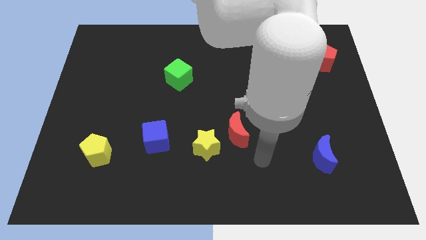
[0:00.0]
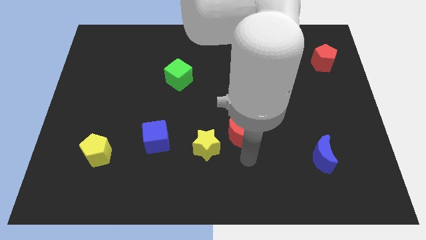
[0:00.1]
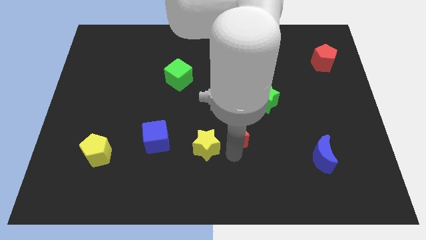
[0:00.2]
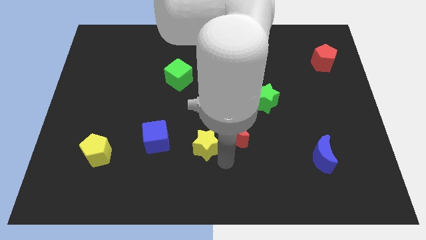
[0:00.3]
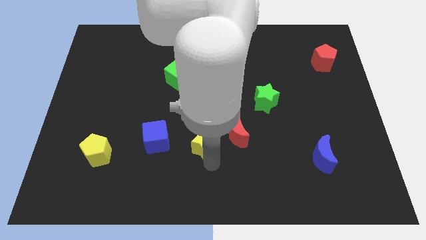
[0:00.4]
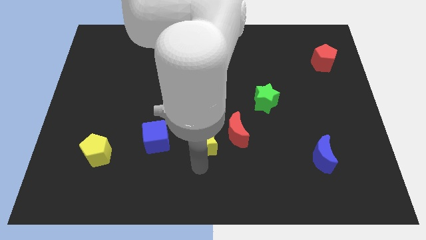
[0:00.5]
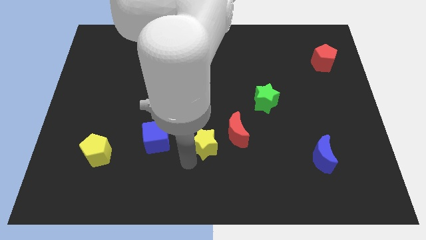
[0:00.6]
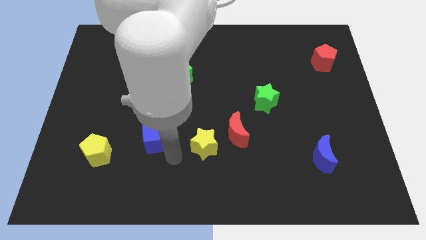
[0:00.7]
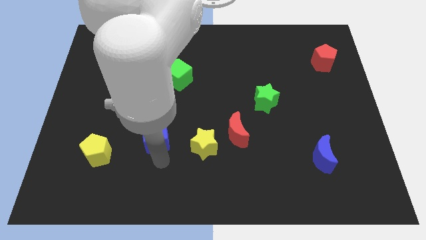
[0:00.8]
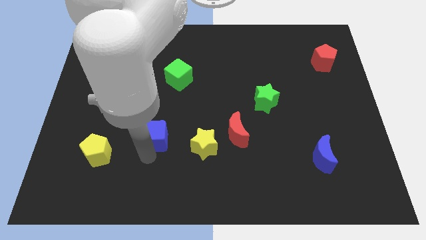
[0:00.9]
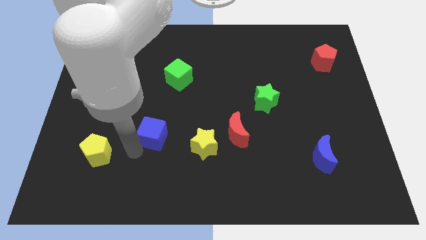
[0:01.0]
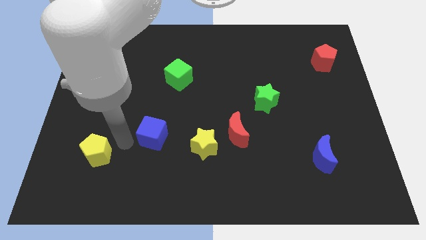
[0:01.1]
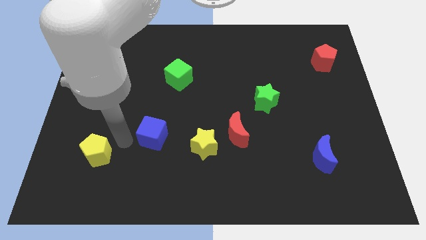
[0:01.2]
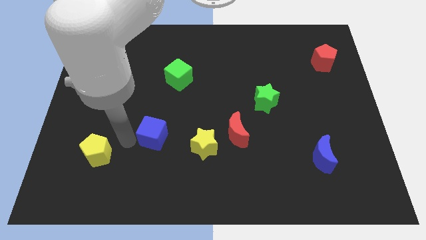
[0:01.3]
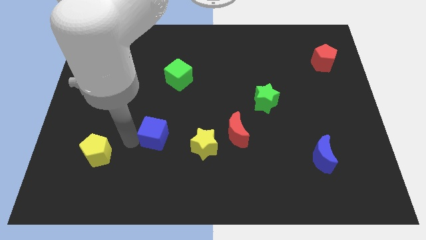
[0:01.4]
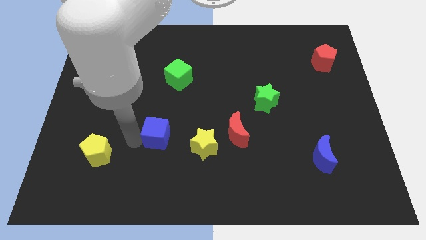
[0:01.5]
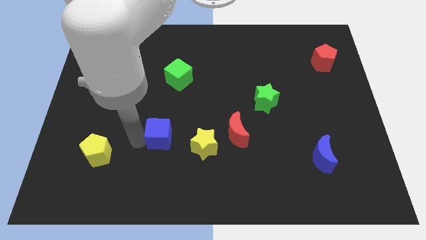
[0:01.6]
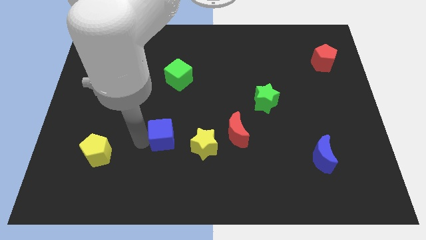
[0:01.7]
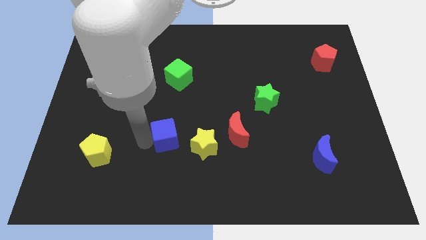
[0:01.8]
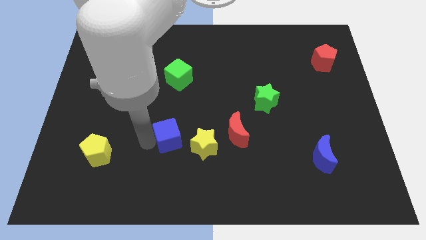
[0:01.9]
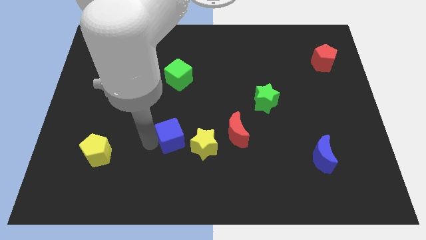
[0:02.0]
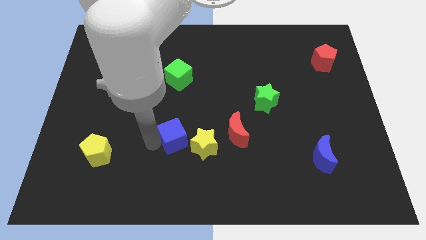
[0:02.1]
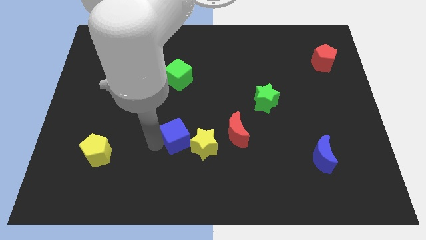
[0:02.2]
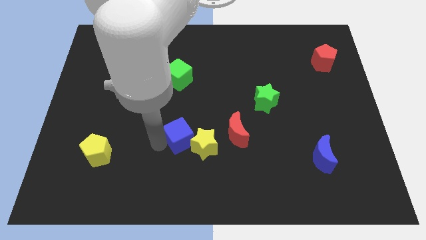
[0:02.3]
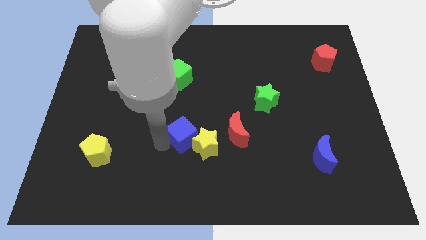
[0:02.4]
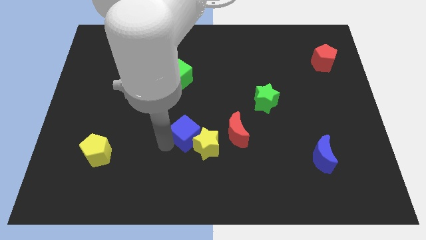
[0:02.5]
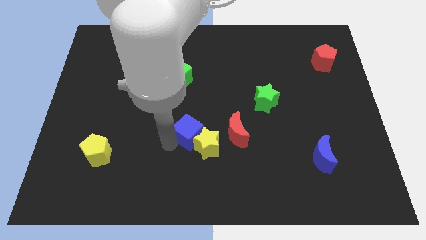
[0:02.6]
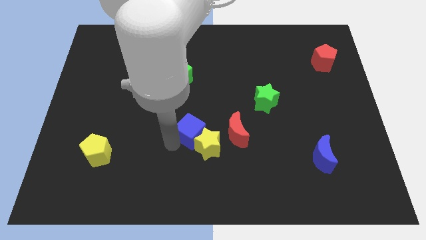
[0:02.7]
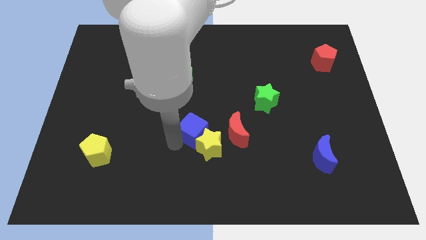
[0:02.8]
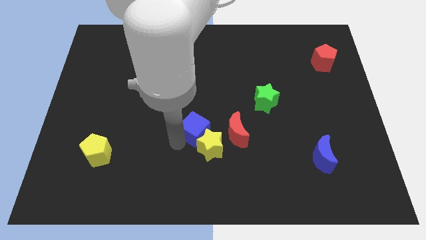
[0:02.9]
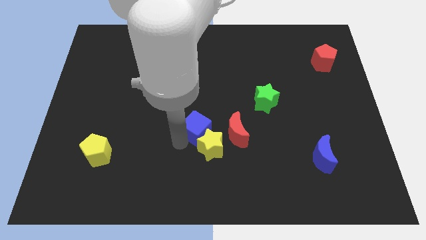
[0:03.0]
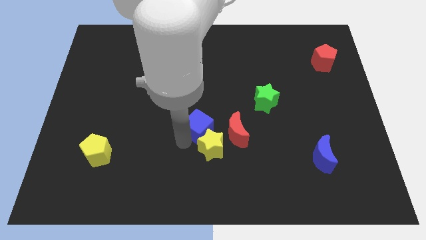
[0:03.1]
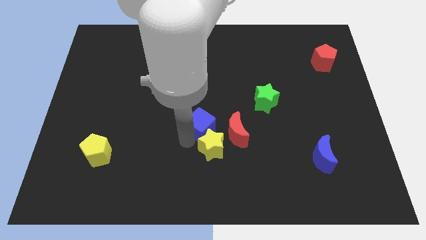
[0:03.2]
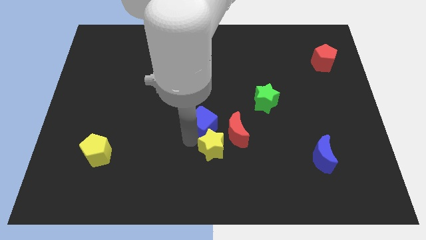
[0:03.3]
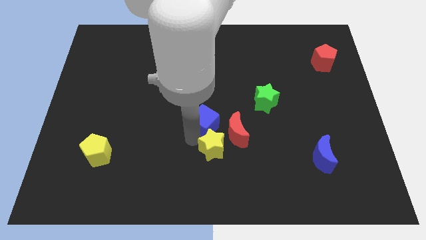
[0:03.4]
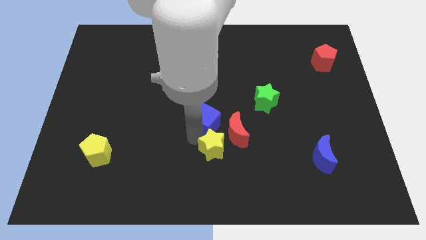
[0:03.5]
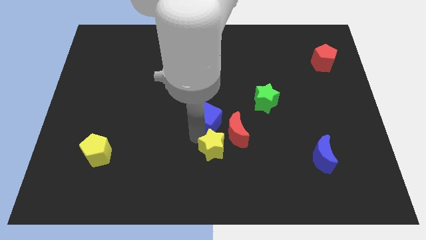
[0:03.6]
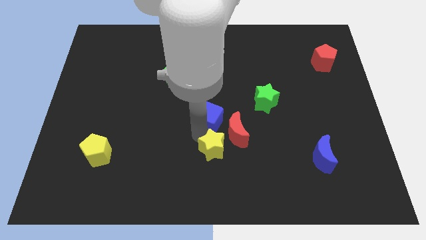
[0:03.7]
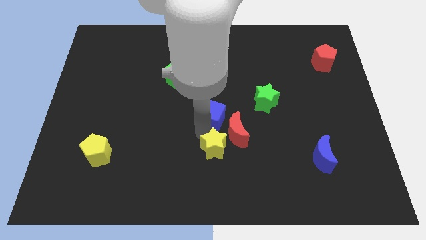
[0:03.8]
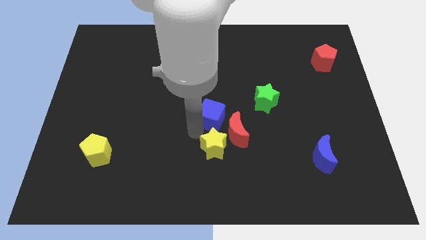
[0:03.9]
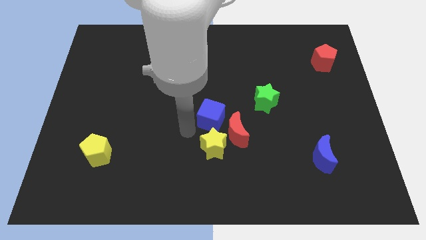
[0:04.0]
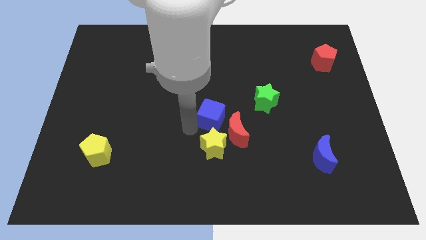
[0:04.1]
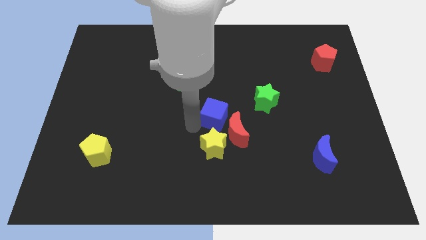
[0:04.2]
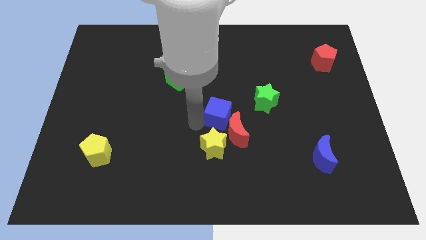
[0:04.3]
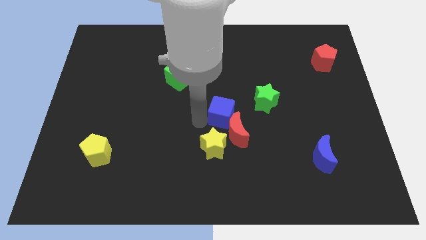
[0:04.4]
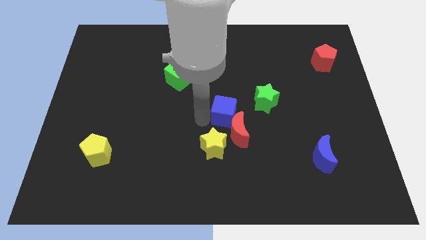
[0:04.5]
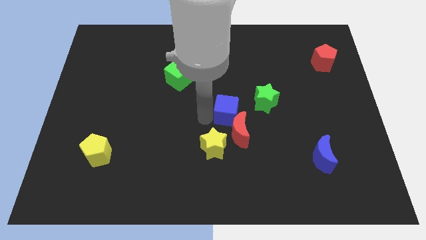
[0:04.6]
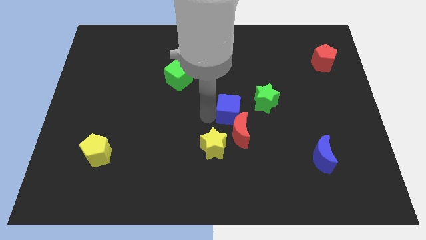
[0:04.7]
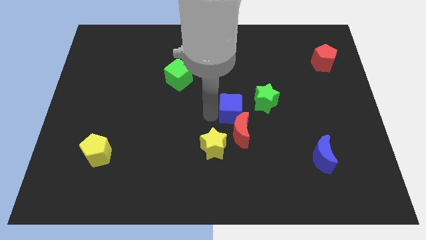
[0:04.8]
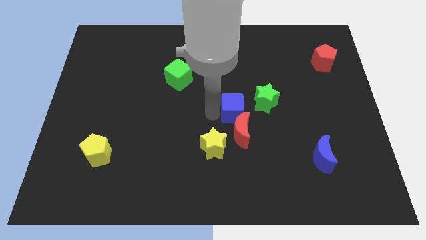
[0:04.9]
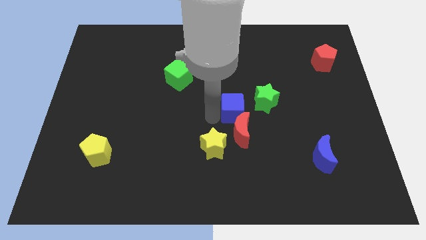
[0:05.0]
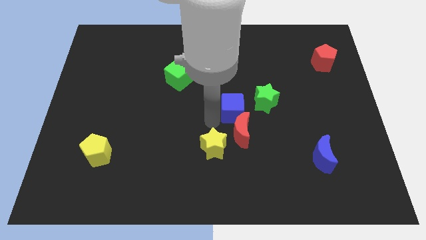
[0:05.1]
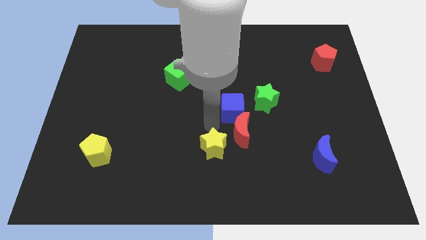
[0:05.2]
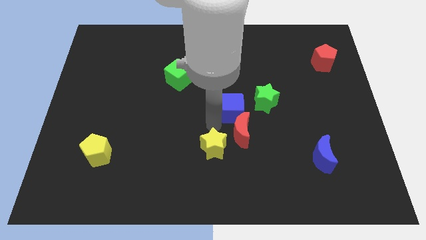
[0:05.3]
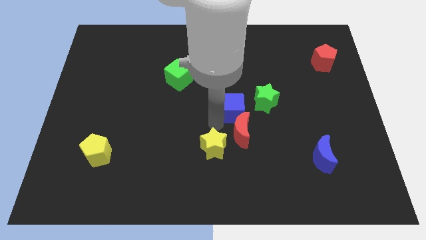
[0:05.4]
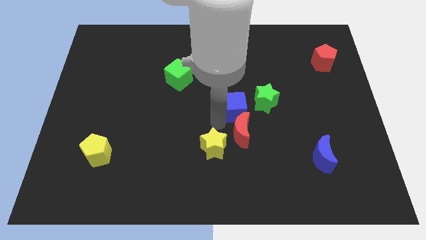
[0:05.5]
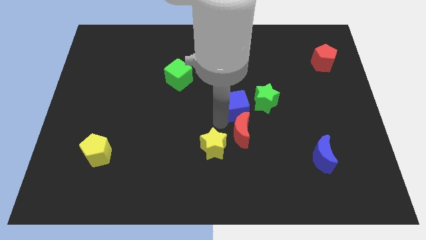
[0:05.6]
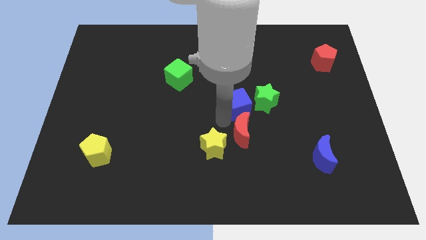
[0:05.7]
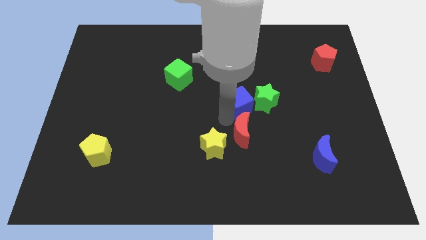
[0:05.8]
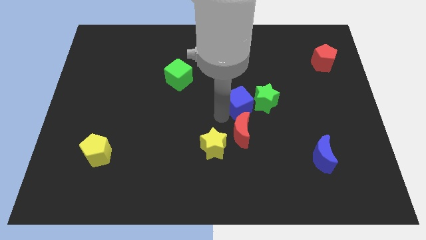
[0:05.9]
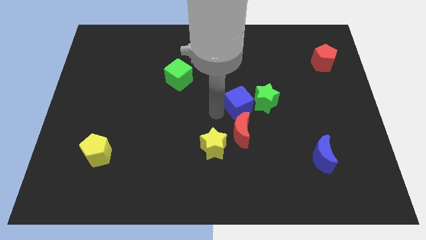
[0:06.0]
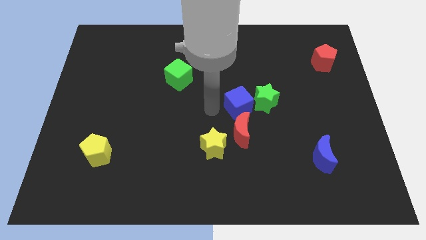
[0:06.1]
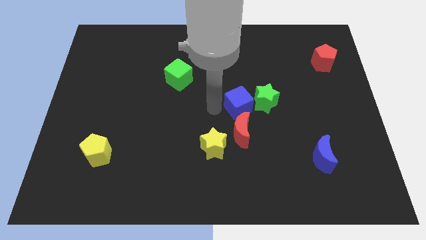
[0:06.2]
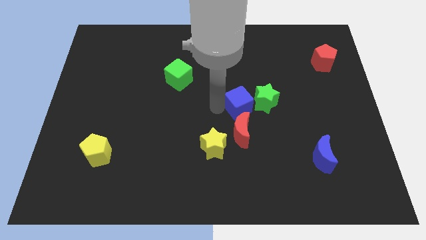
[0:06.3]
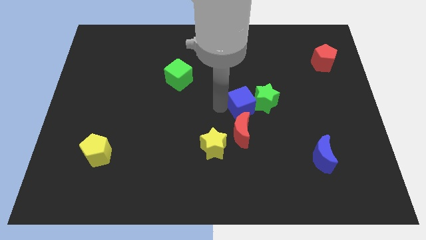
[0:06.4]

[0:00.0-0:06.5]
put the blue cube next to the green star
